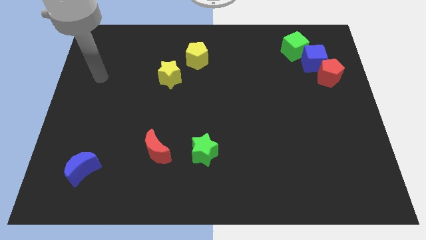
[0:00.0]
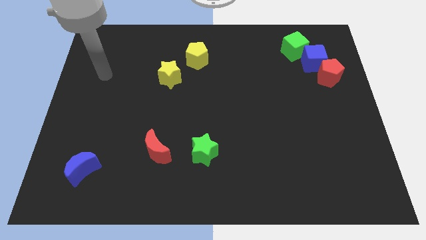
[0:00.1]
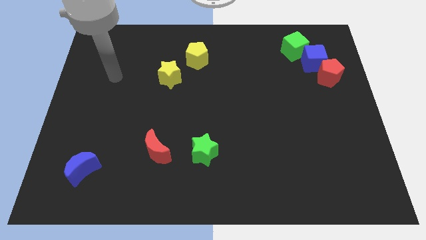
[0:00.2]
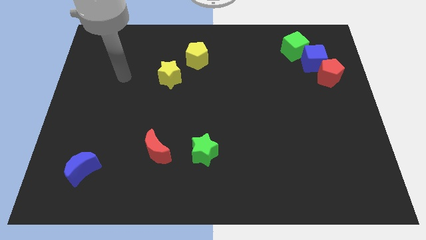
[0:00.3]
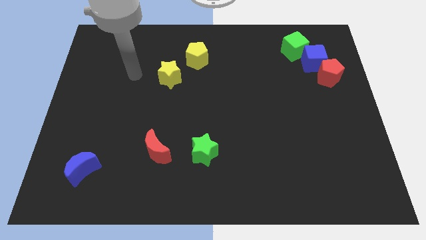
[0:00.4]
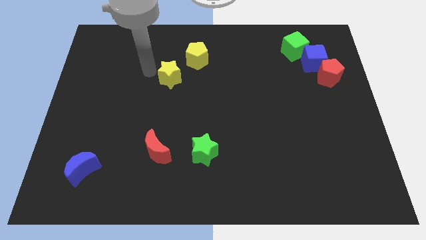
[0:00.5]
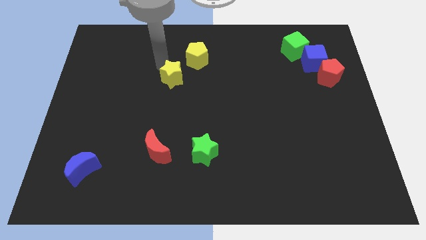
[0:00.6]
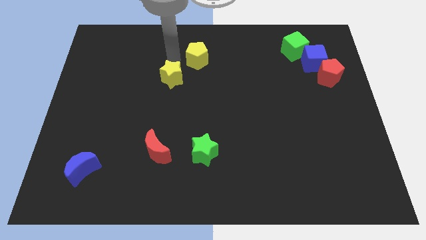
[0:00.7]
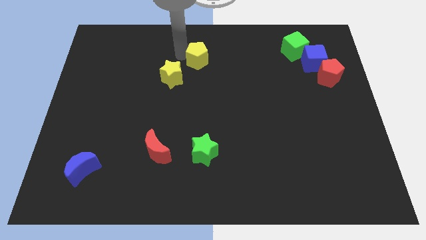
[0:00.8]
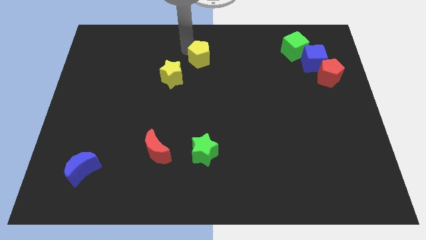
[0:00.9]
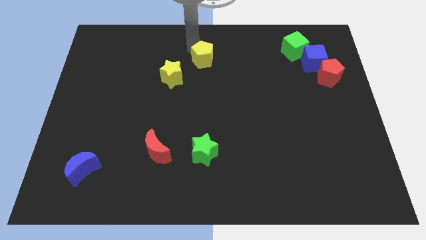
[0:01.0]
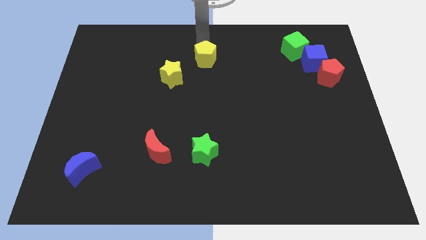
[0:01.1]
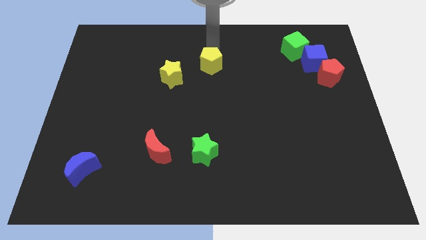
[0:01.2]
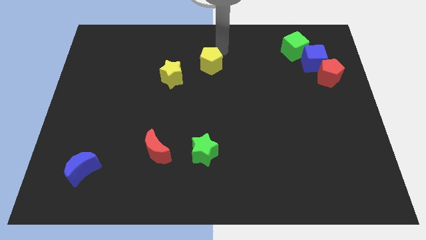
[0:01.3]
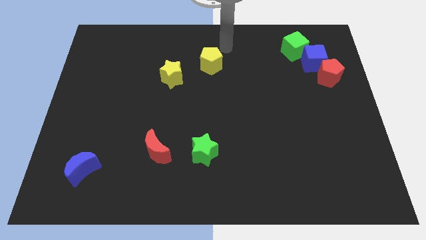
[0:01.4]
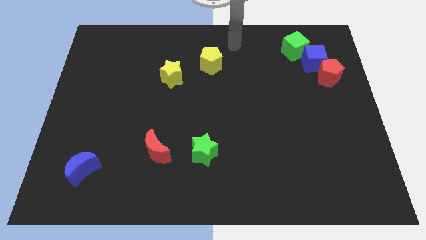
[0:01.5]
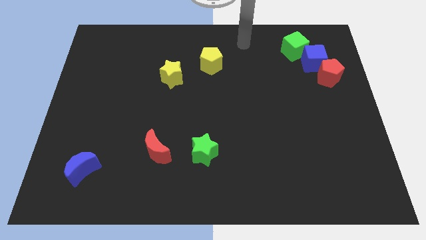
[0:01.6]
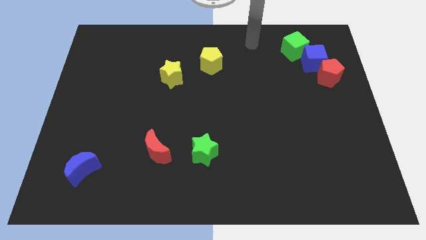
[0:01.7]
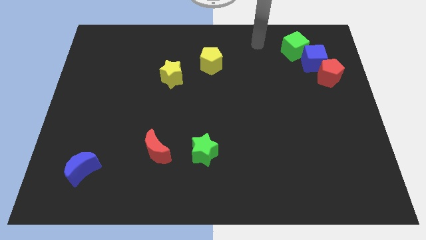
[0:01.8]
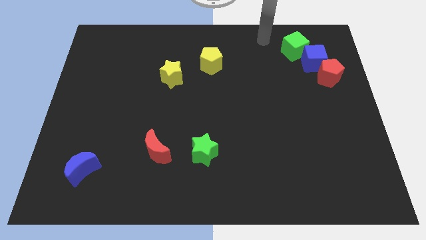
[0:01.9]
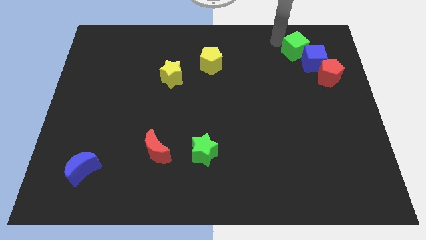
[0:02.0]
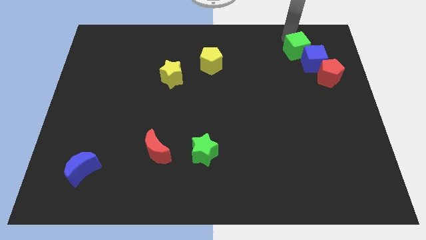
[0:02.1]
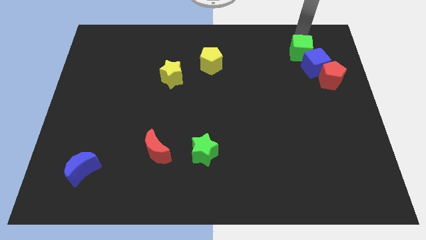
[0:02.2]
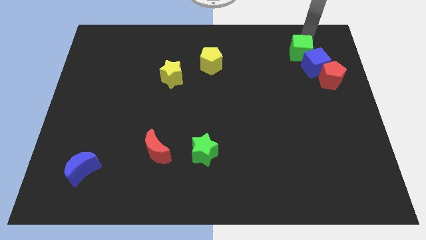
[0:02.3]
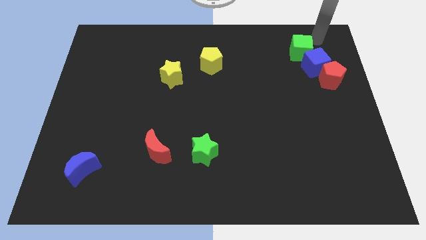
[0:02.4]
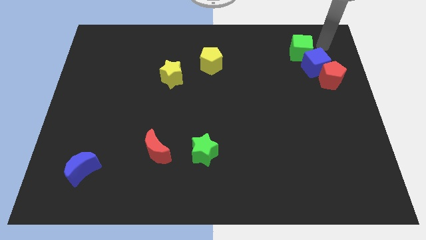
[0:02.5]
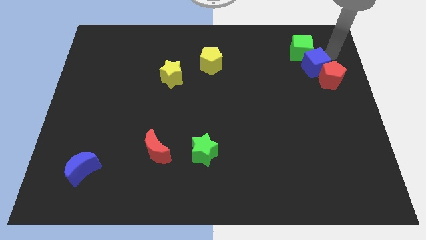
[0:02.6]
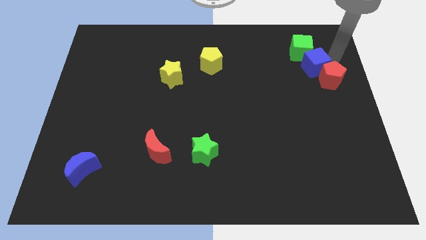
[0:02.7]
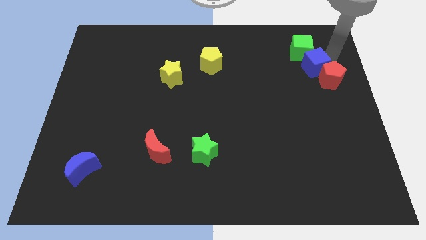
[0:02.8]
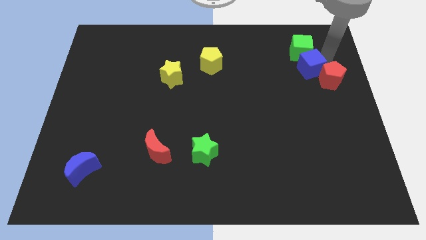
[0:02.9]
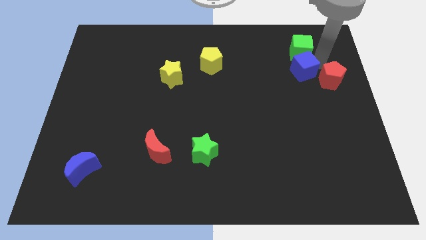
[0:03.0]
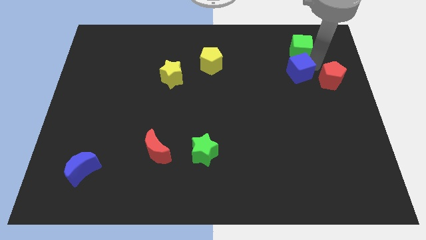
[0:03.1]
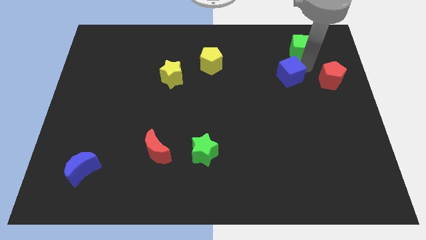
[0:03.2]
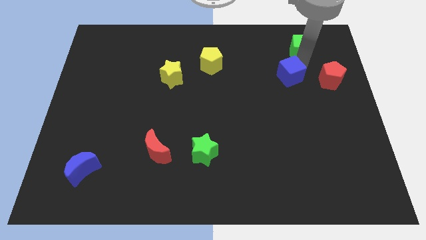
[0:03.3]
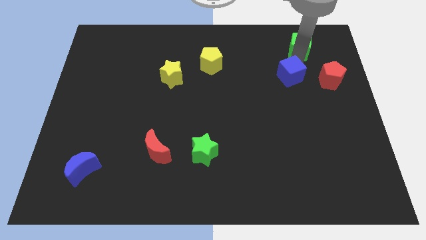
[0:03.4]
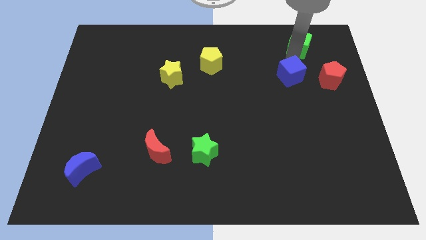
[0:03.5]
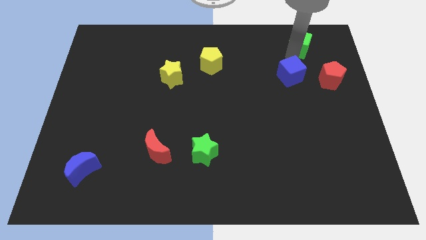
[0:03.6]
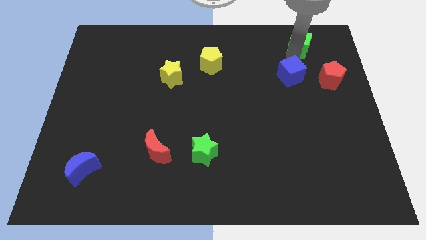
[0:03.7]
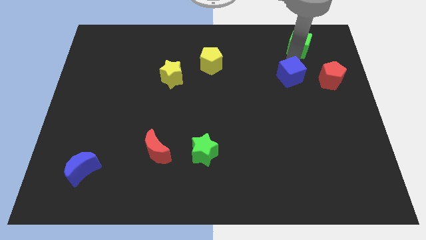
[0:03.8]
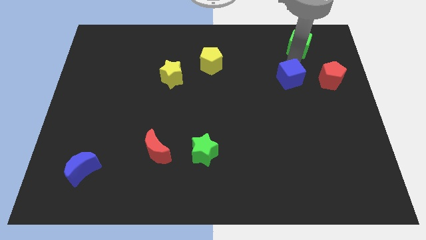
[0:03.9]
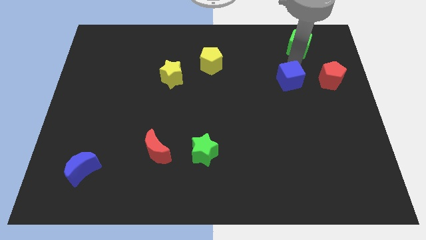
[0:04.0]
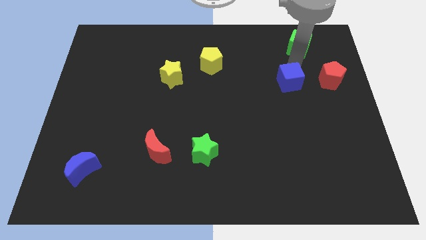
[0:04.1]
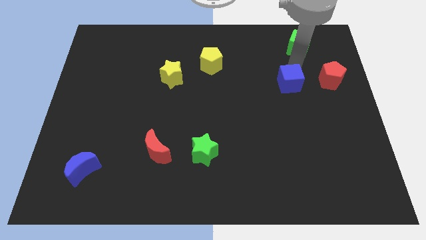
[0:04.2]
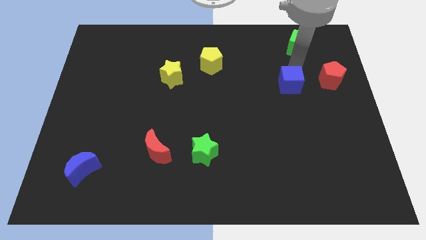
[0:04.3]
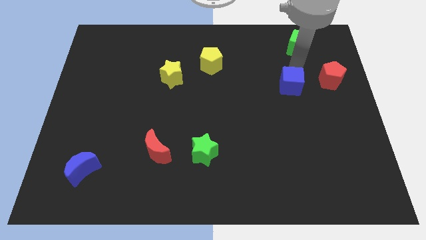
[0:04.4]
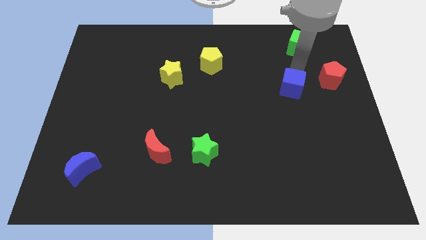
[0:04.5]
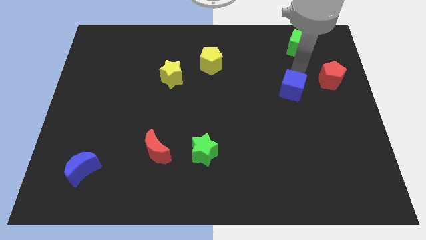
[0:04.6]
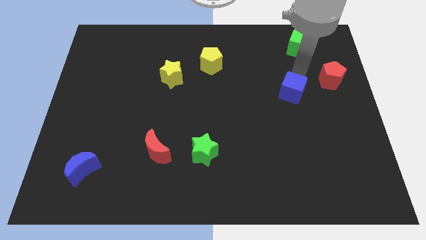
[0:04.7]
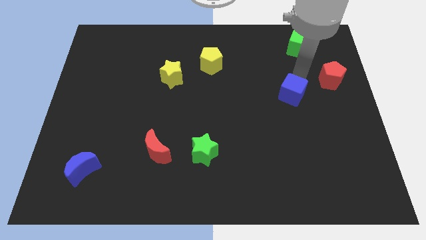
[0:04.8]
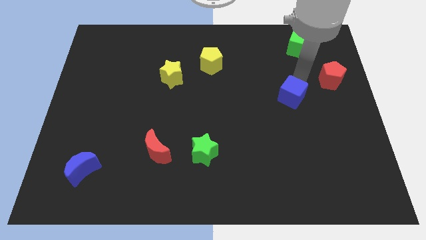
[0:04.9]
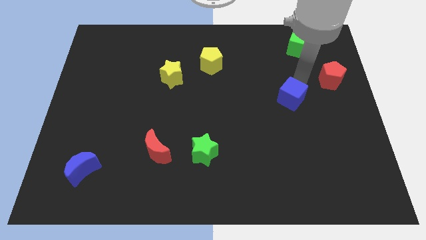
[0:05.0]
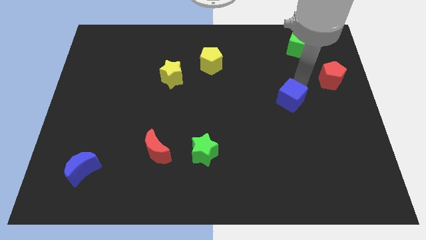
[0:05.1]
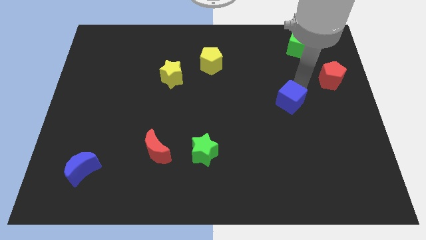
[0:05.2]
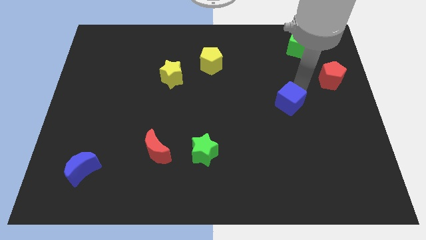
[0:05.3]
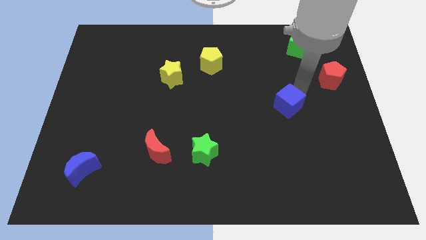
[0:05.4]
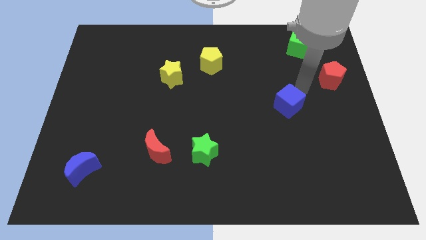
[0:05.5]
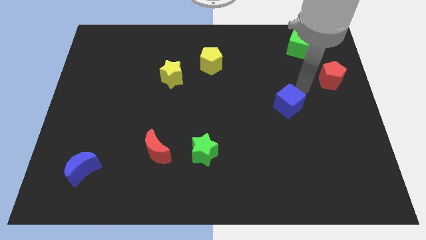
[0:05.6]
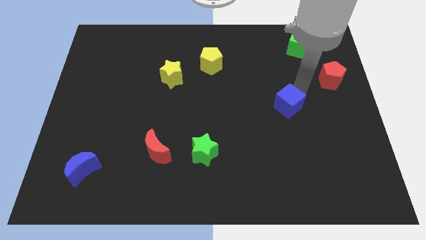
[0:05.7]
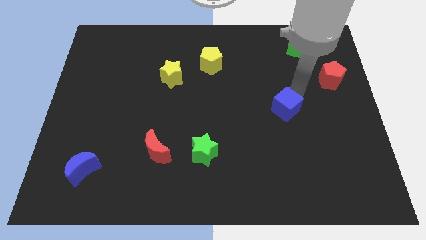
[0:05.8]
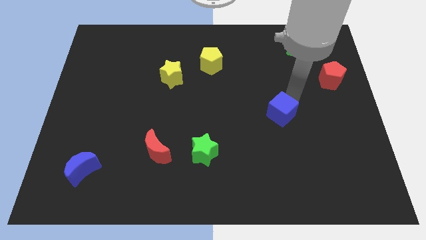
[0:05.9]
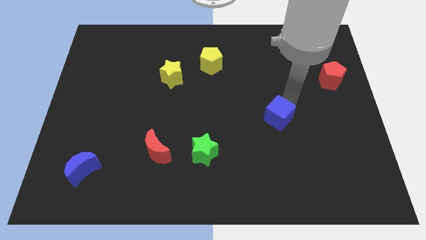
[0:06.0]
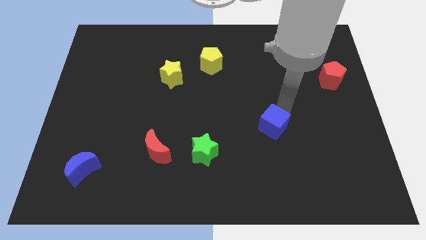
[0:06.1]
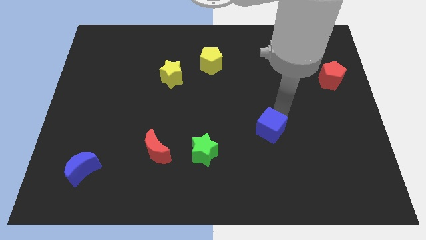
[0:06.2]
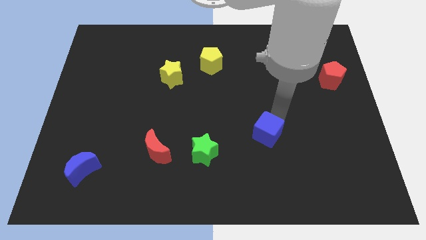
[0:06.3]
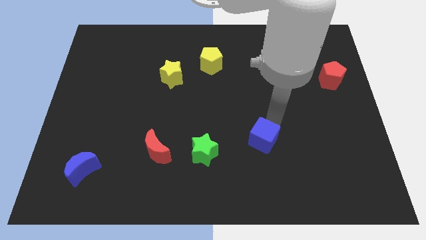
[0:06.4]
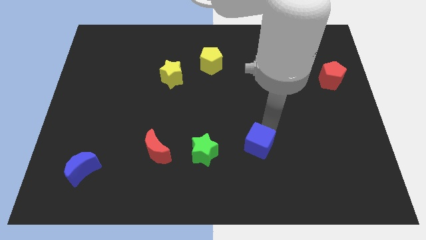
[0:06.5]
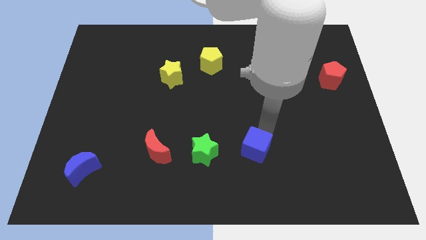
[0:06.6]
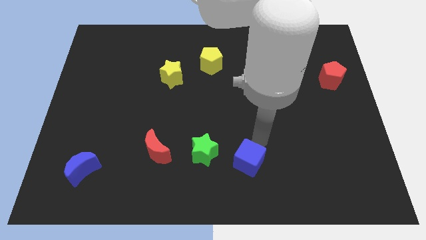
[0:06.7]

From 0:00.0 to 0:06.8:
push the blue cube to the bottom
